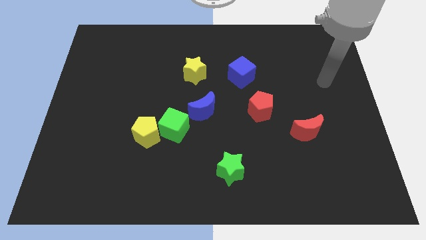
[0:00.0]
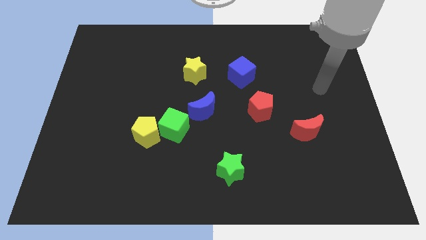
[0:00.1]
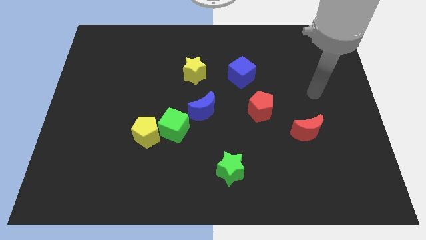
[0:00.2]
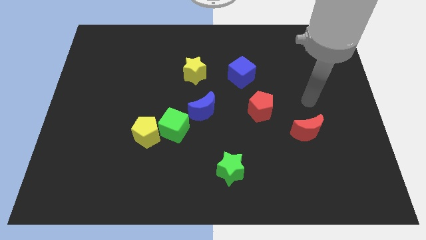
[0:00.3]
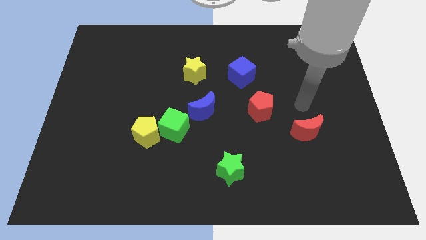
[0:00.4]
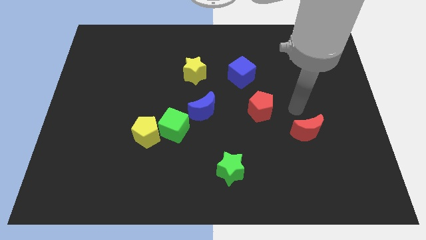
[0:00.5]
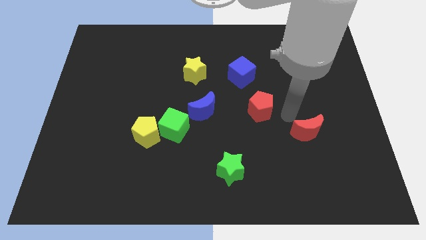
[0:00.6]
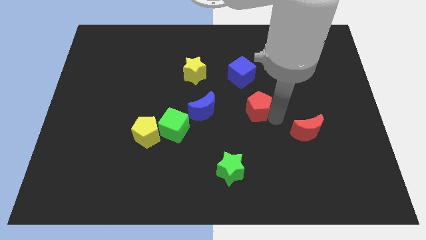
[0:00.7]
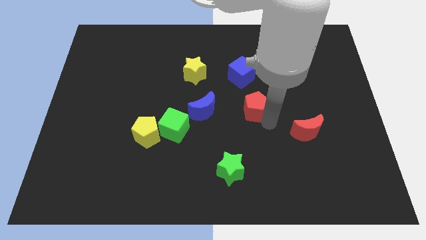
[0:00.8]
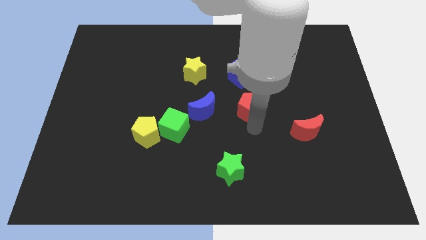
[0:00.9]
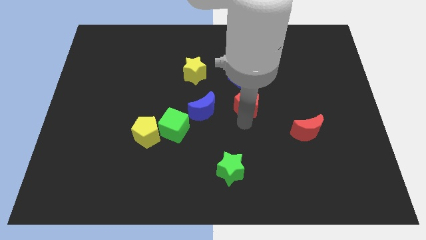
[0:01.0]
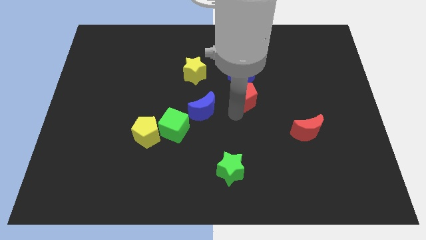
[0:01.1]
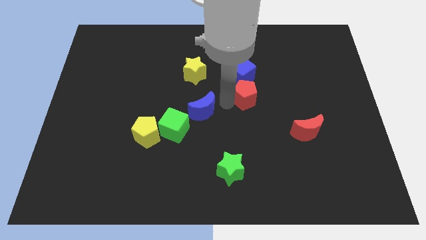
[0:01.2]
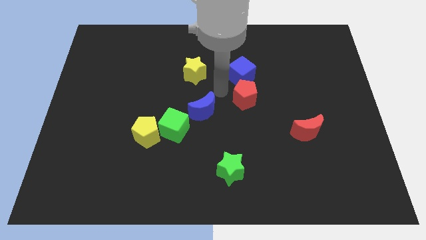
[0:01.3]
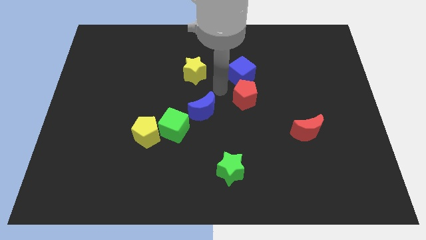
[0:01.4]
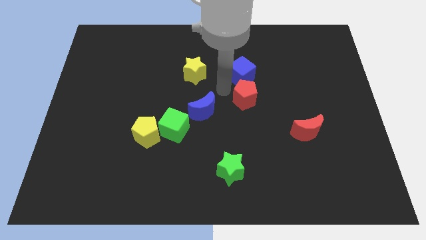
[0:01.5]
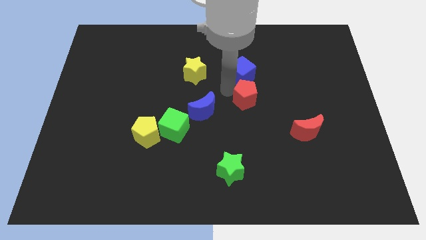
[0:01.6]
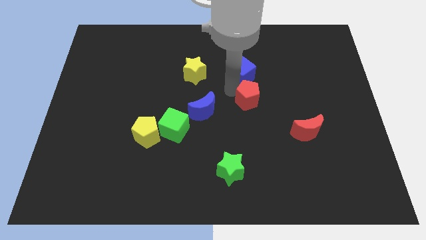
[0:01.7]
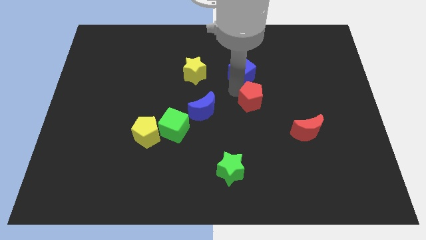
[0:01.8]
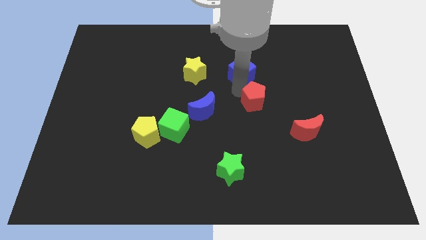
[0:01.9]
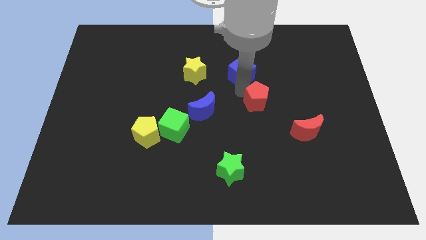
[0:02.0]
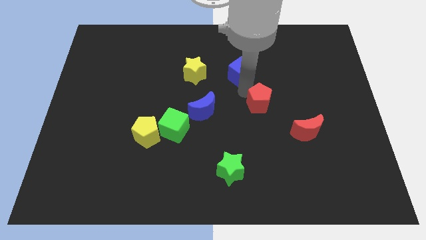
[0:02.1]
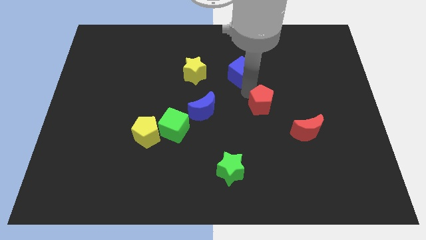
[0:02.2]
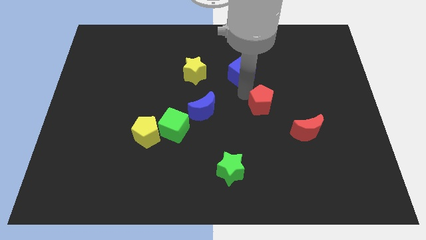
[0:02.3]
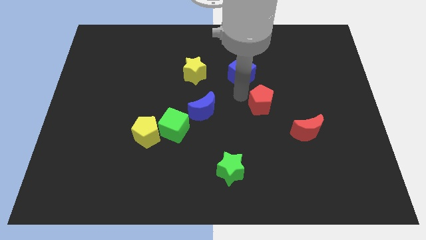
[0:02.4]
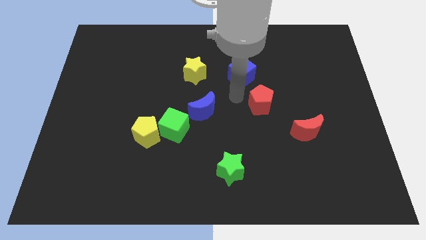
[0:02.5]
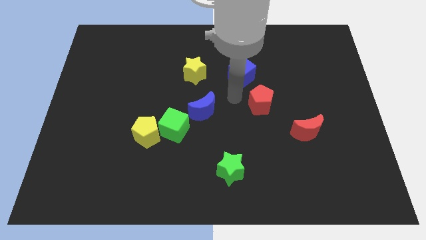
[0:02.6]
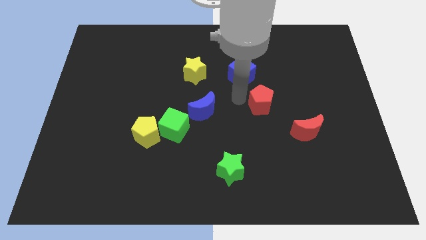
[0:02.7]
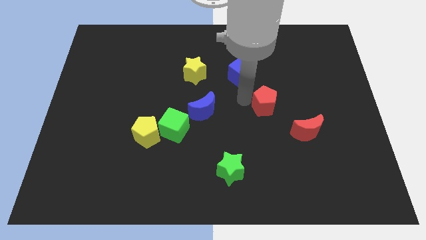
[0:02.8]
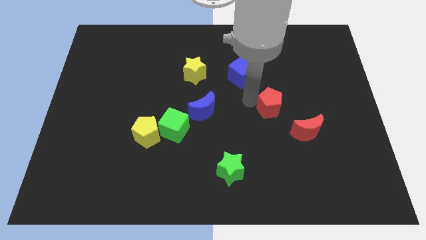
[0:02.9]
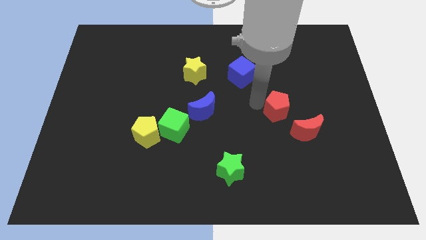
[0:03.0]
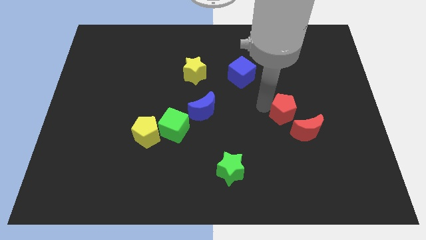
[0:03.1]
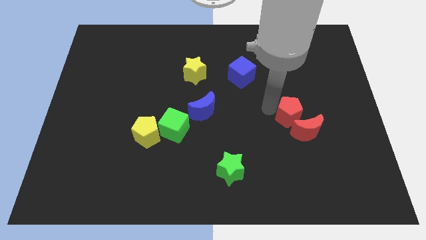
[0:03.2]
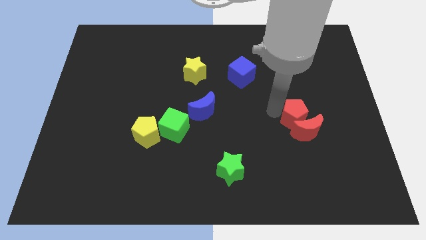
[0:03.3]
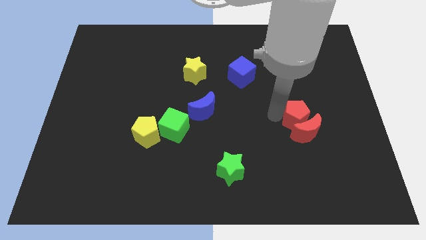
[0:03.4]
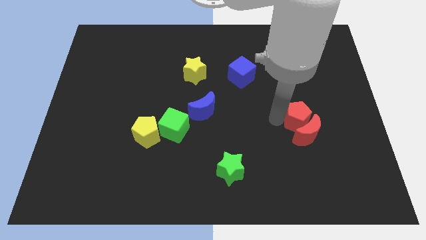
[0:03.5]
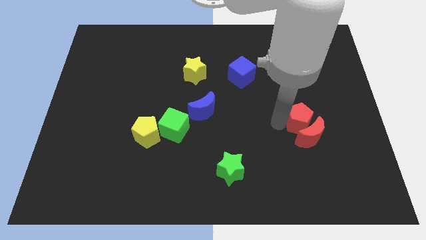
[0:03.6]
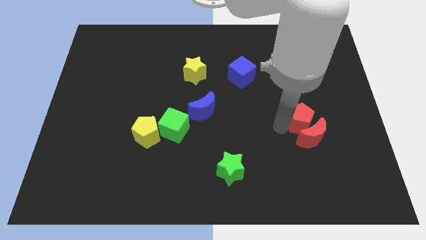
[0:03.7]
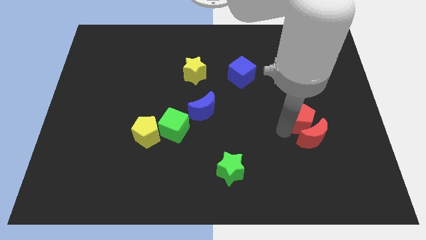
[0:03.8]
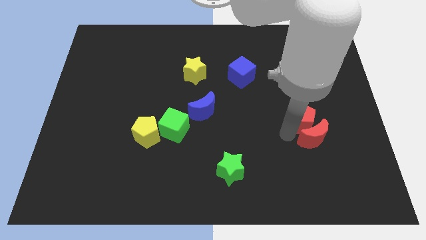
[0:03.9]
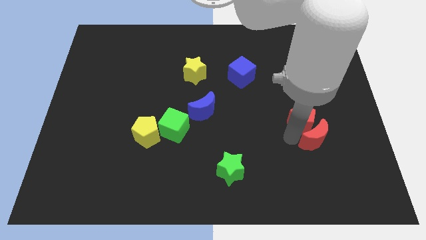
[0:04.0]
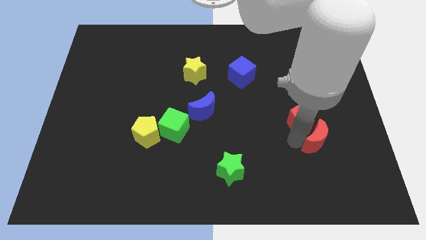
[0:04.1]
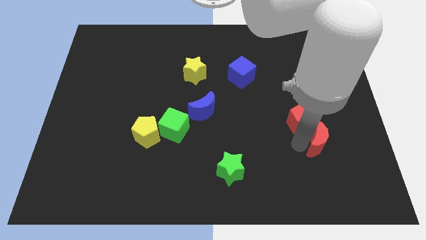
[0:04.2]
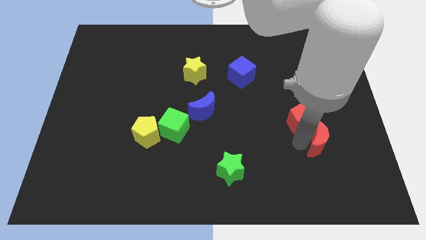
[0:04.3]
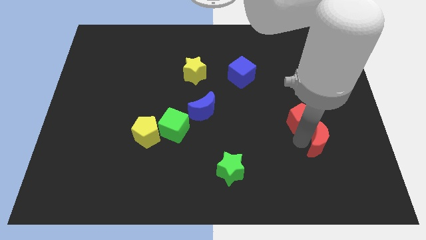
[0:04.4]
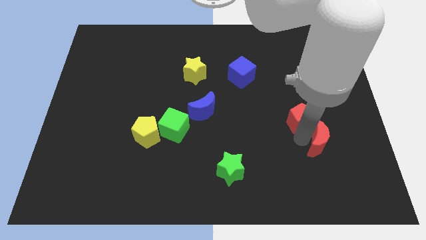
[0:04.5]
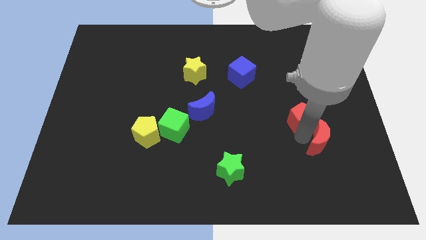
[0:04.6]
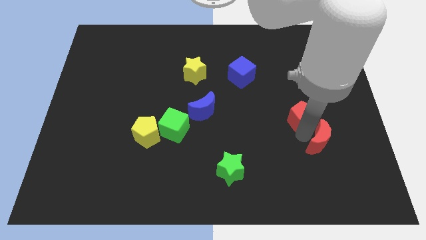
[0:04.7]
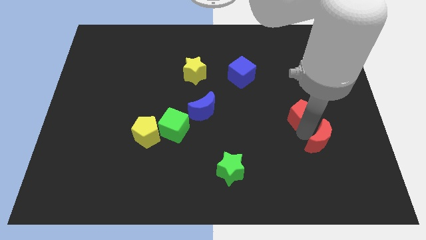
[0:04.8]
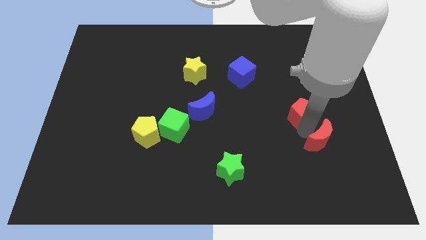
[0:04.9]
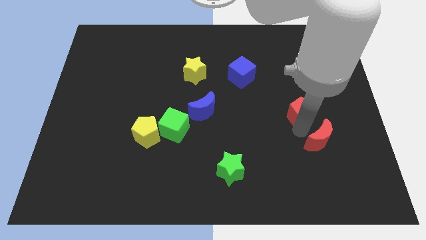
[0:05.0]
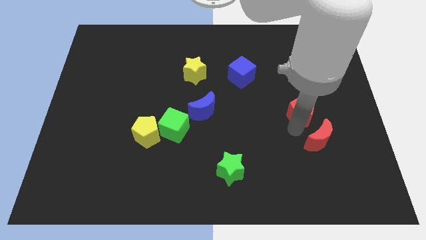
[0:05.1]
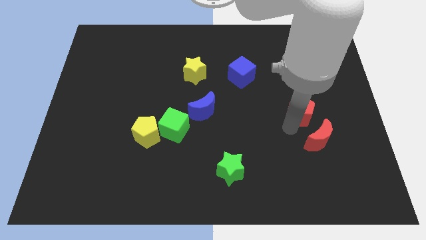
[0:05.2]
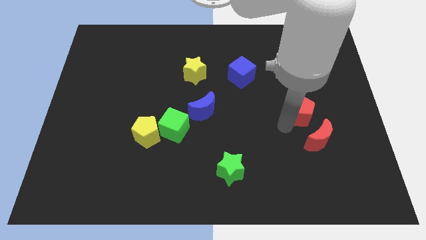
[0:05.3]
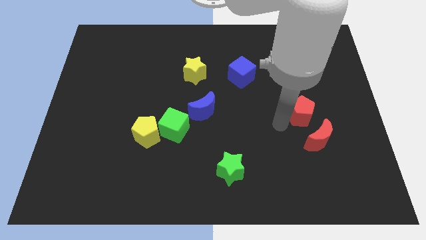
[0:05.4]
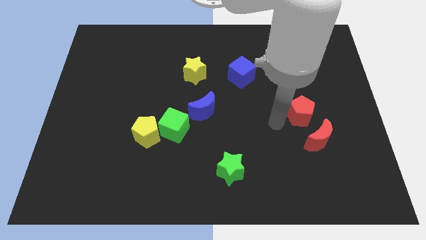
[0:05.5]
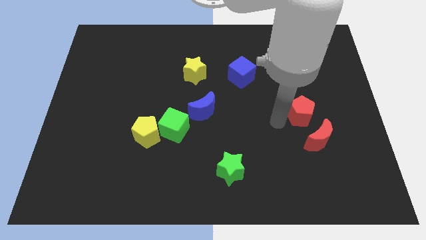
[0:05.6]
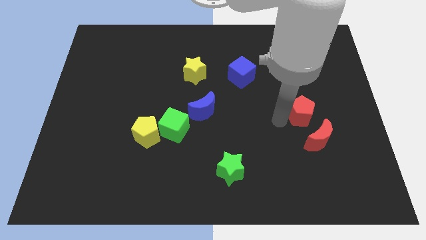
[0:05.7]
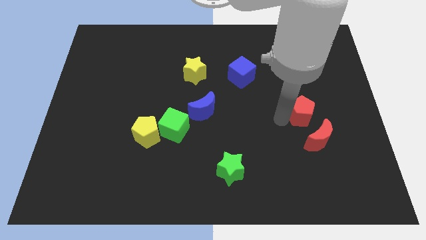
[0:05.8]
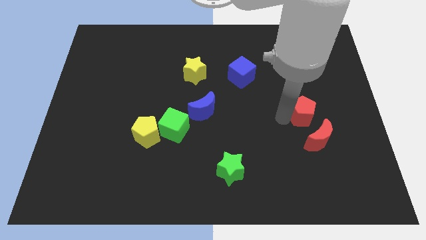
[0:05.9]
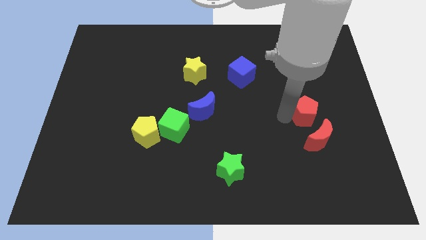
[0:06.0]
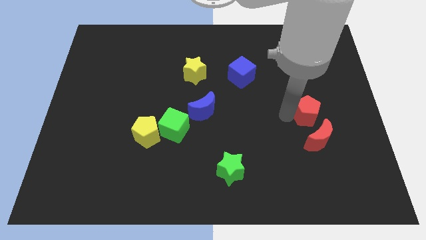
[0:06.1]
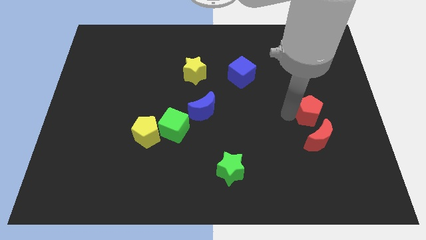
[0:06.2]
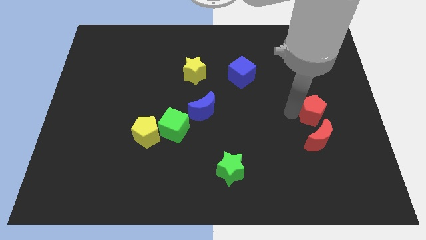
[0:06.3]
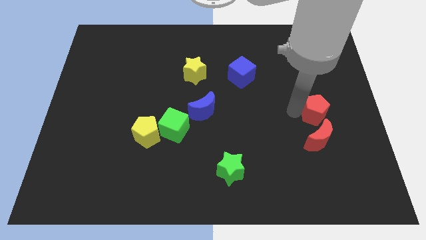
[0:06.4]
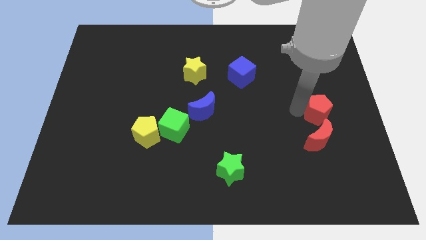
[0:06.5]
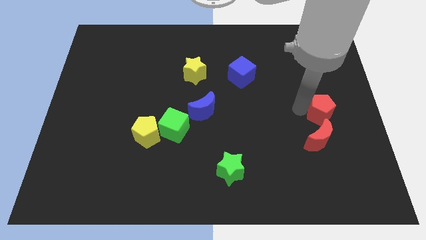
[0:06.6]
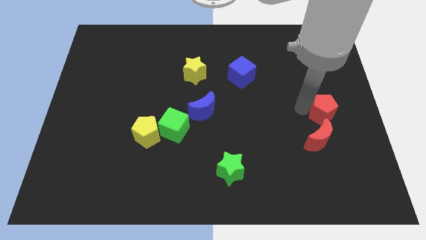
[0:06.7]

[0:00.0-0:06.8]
move the red pentagon to the center right

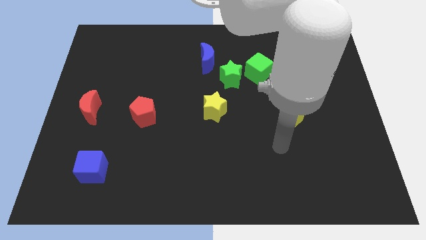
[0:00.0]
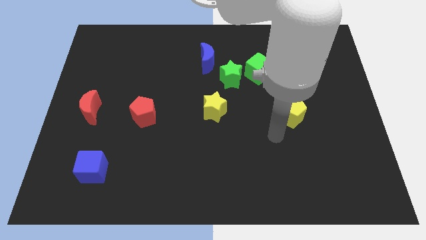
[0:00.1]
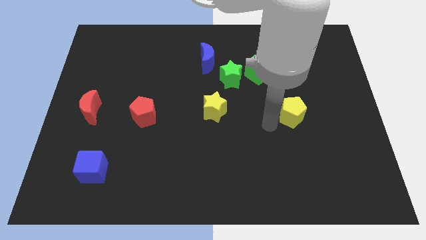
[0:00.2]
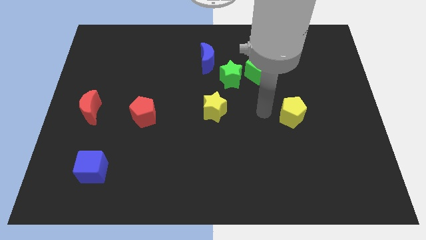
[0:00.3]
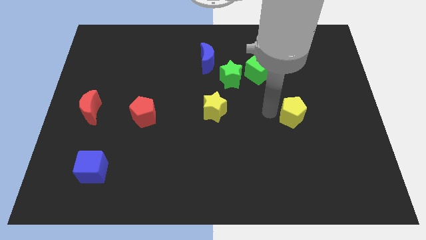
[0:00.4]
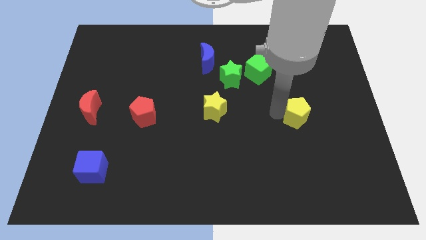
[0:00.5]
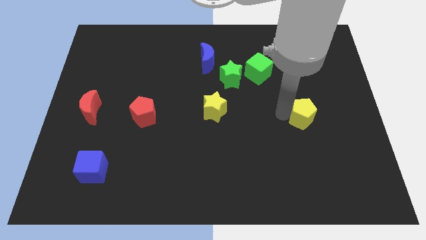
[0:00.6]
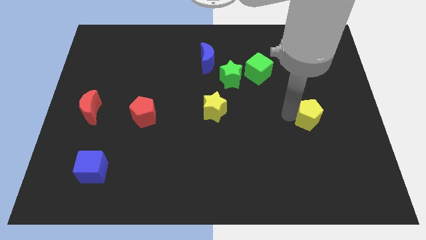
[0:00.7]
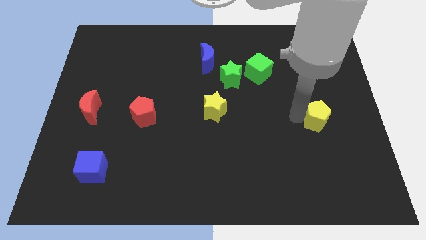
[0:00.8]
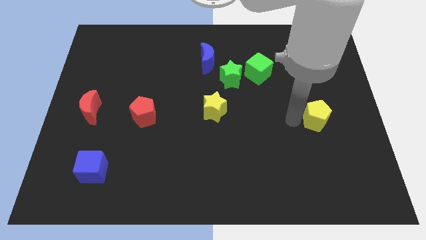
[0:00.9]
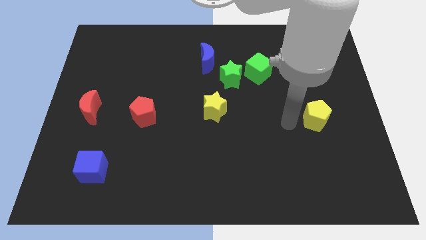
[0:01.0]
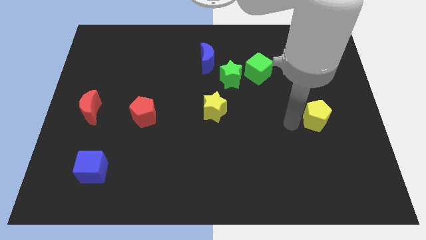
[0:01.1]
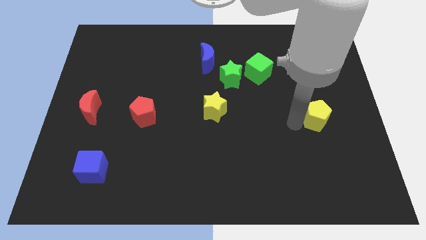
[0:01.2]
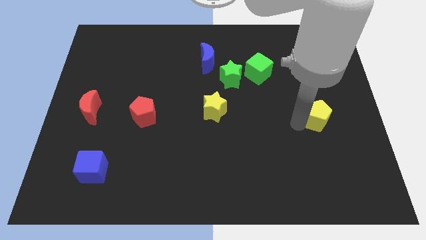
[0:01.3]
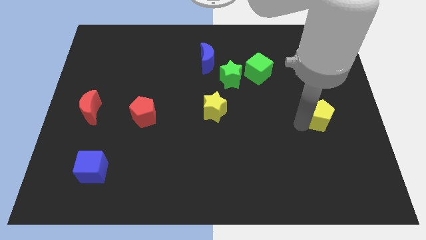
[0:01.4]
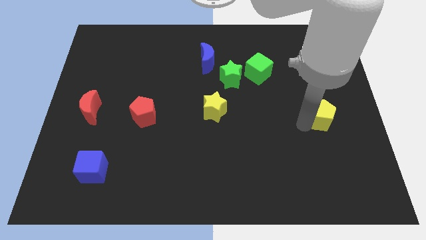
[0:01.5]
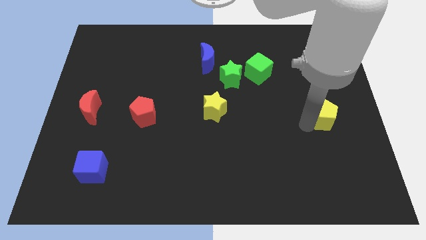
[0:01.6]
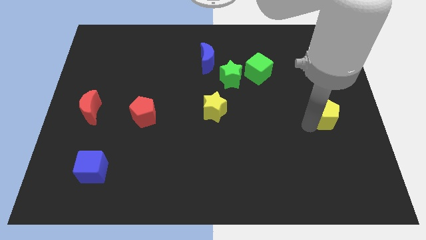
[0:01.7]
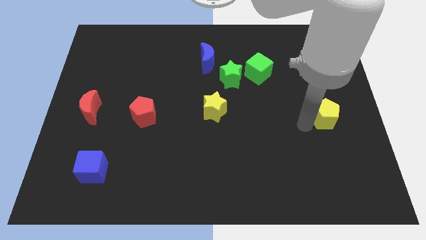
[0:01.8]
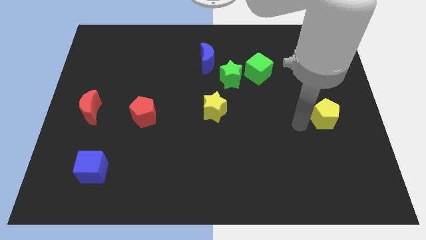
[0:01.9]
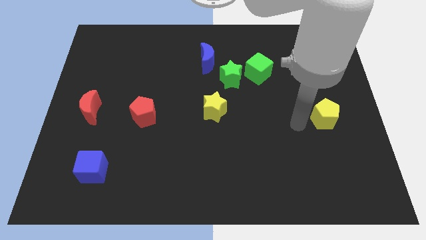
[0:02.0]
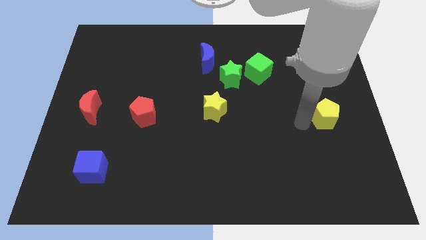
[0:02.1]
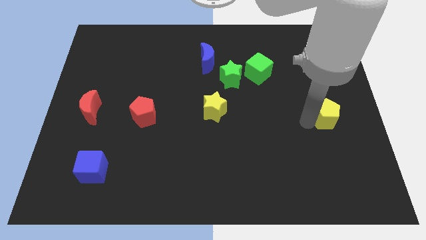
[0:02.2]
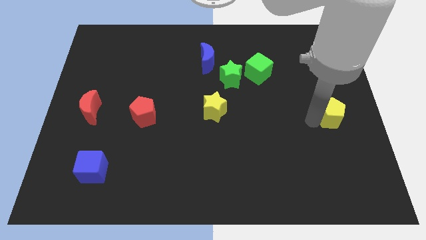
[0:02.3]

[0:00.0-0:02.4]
push the yellow pentagon to the right side of the board
